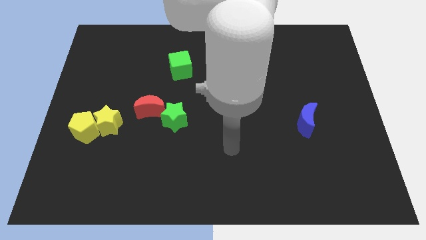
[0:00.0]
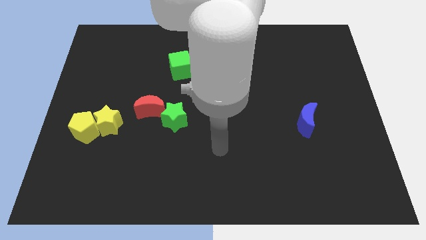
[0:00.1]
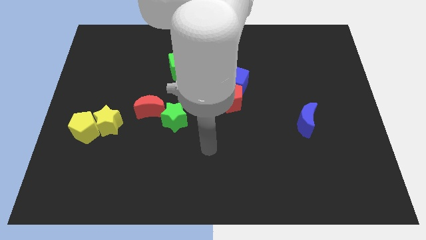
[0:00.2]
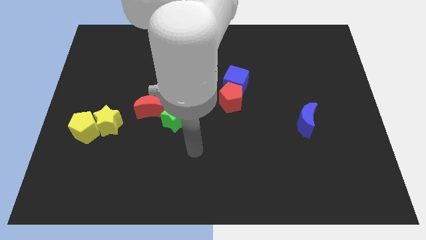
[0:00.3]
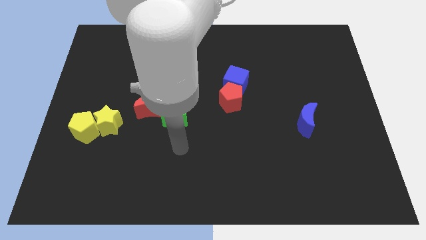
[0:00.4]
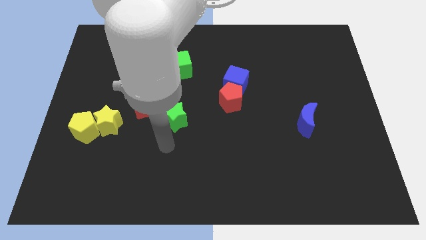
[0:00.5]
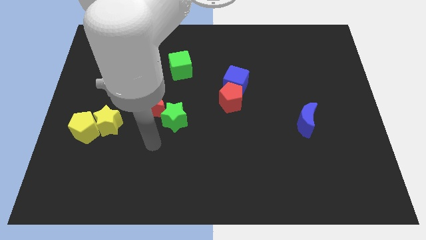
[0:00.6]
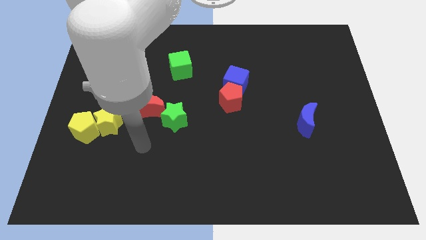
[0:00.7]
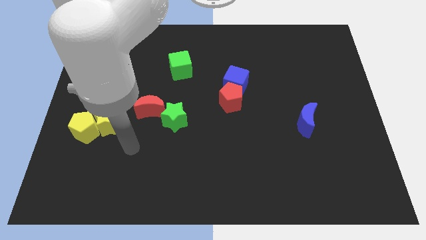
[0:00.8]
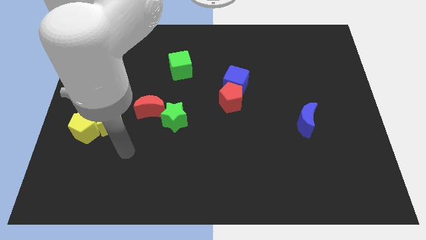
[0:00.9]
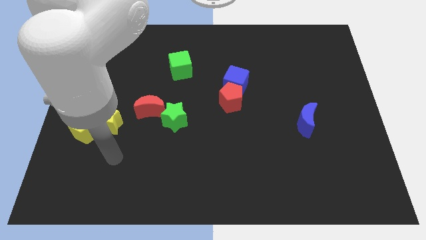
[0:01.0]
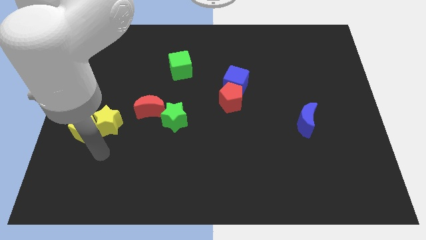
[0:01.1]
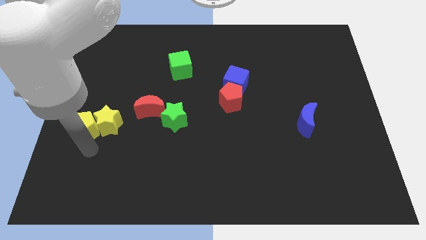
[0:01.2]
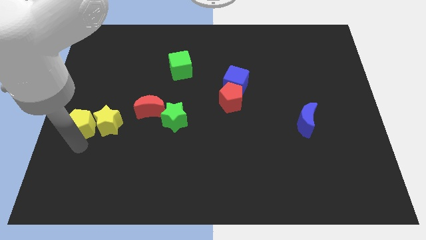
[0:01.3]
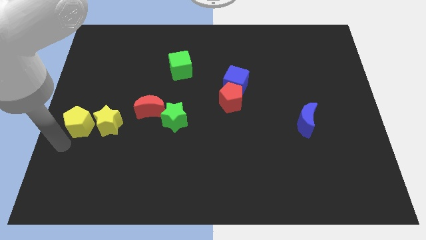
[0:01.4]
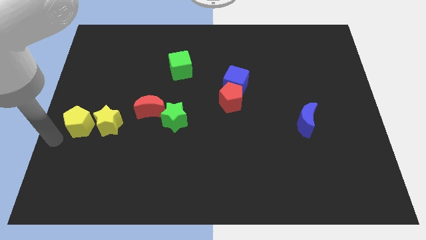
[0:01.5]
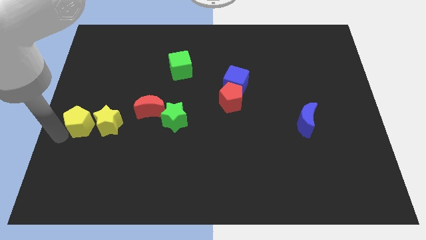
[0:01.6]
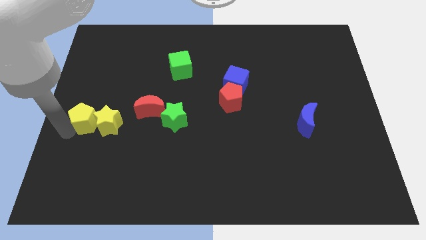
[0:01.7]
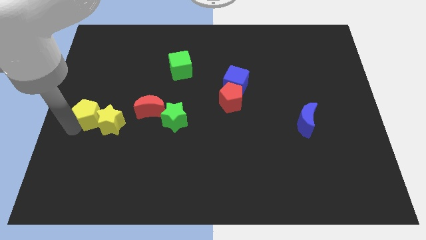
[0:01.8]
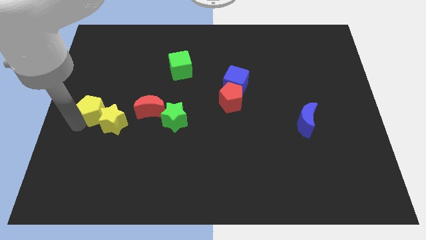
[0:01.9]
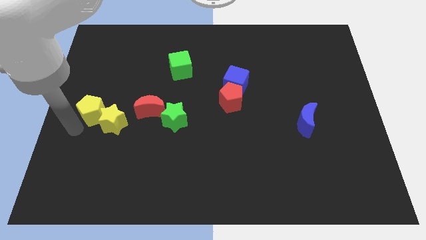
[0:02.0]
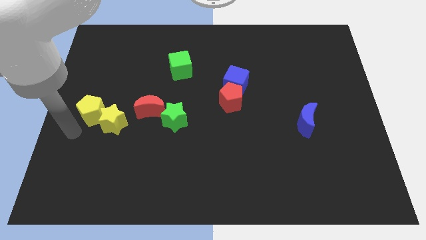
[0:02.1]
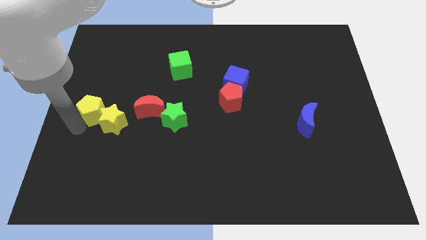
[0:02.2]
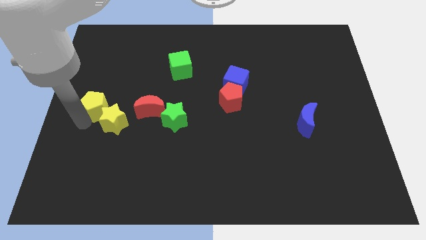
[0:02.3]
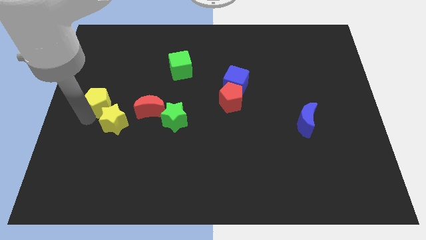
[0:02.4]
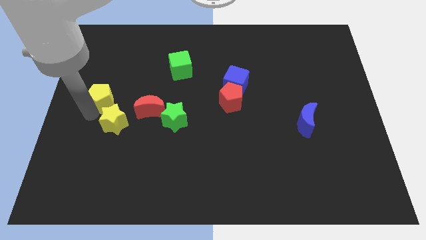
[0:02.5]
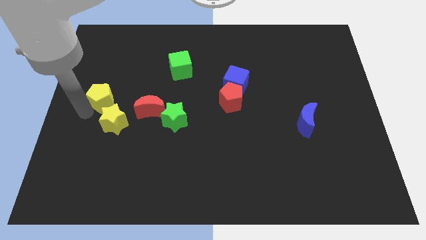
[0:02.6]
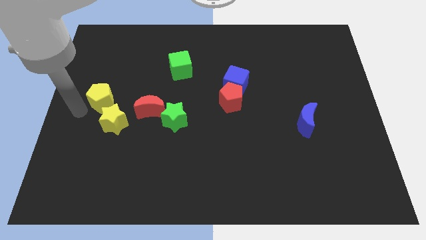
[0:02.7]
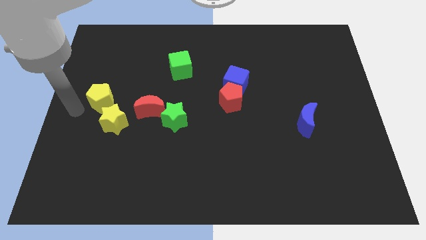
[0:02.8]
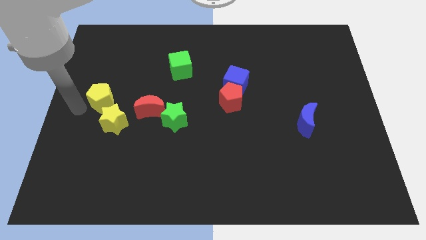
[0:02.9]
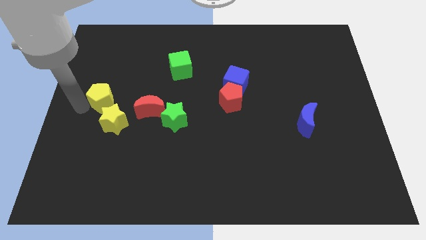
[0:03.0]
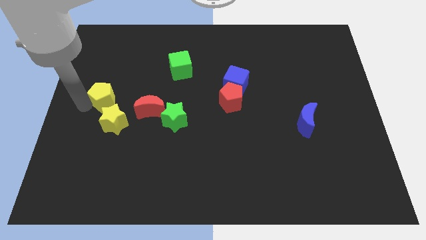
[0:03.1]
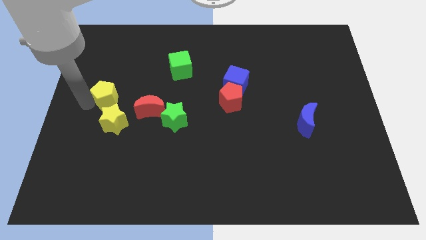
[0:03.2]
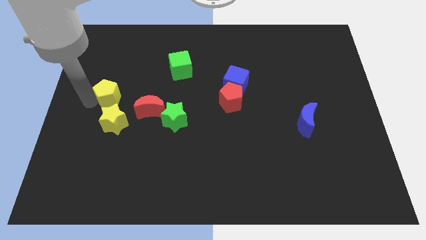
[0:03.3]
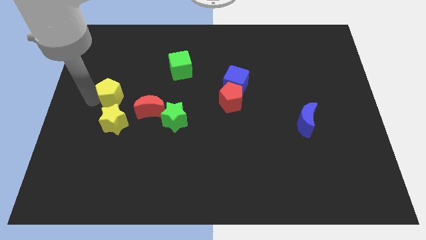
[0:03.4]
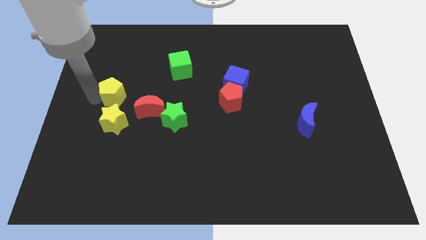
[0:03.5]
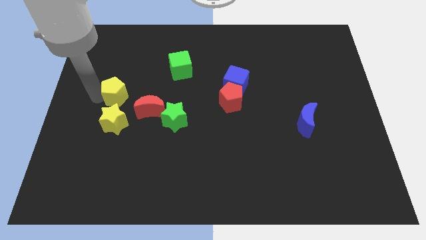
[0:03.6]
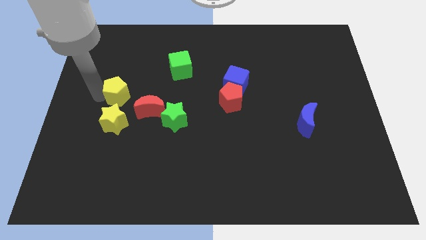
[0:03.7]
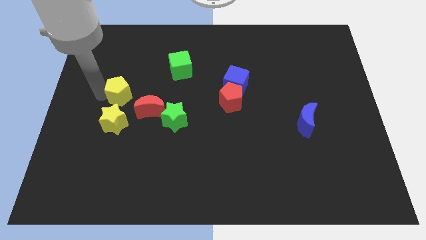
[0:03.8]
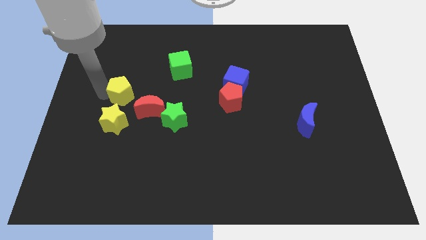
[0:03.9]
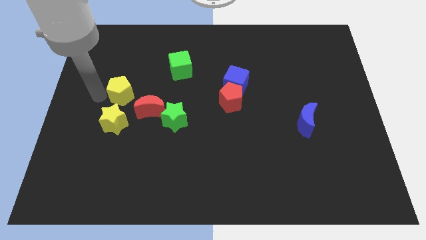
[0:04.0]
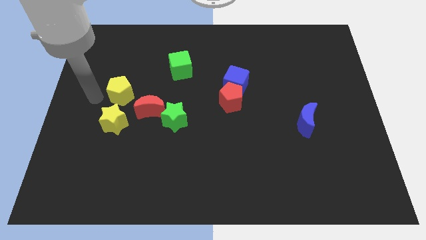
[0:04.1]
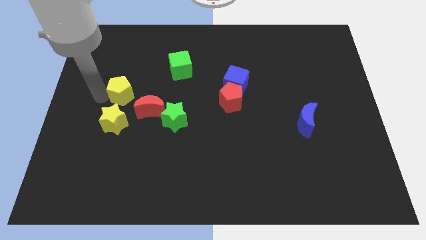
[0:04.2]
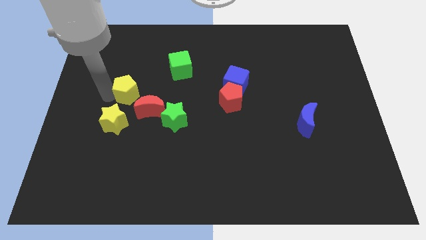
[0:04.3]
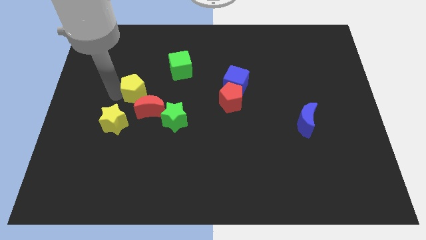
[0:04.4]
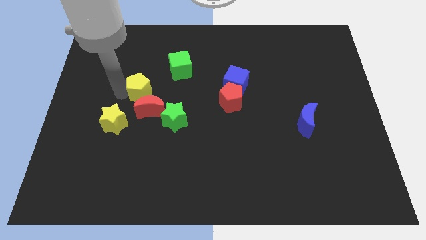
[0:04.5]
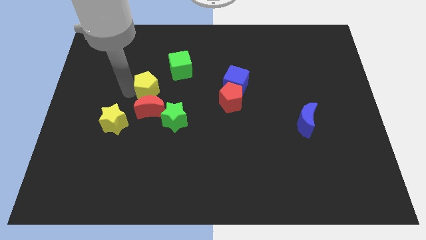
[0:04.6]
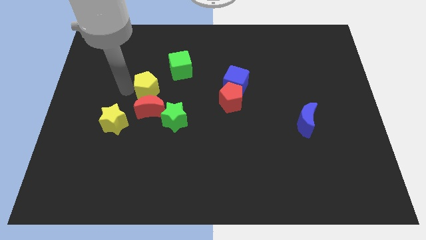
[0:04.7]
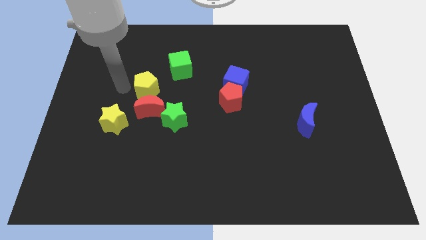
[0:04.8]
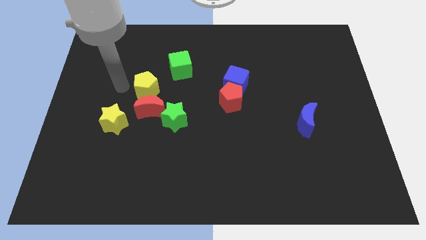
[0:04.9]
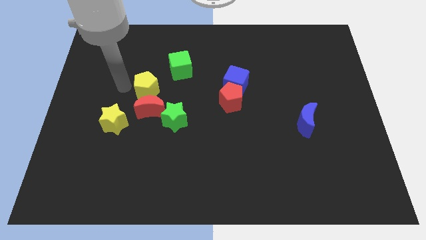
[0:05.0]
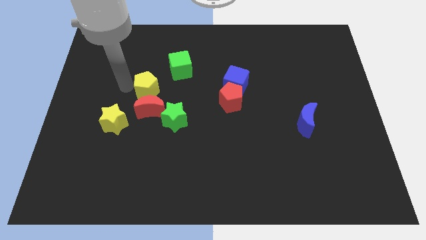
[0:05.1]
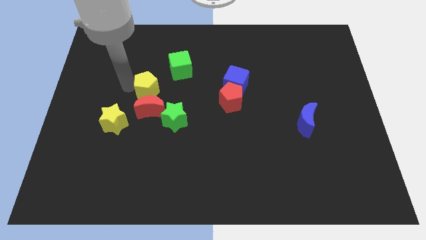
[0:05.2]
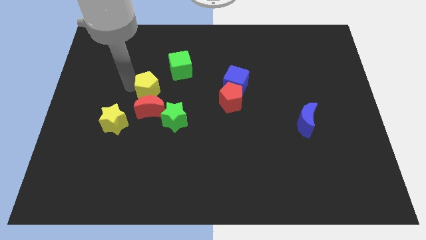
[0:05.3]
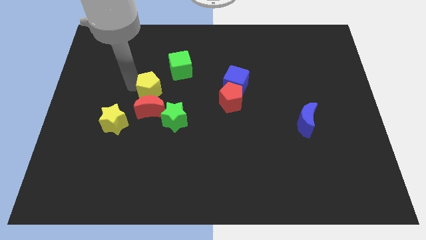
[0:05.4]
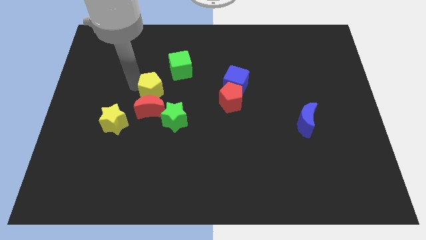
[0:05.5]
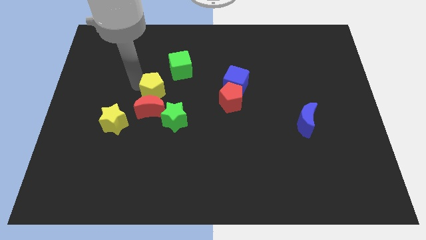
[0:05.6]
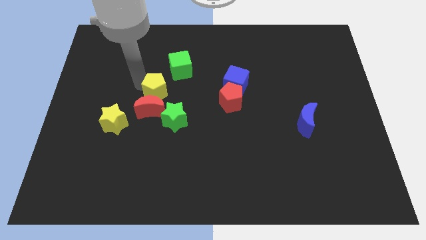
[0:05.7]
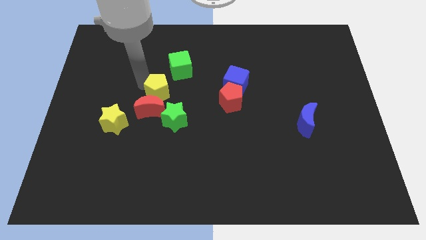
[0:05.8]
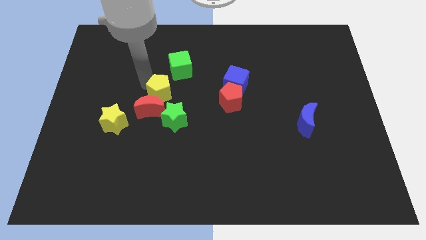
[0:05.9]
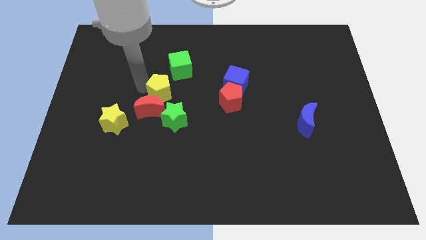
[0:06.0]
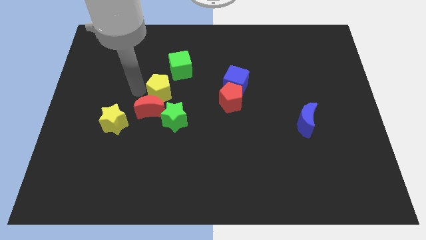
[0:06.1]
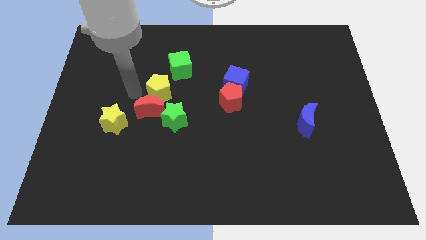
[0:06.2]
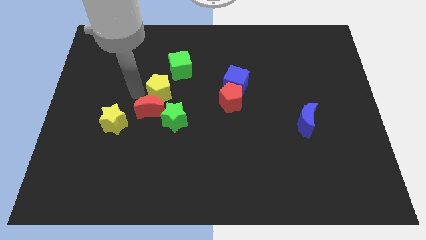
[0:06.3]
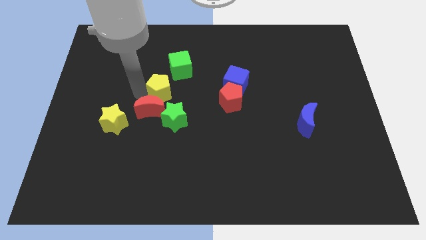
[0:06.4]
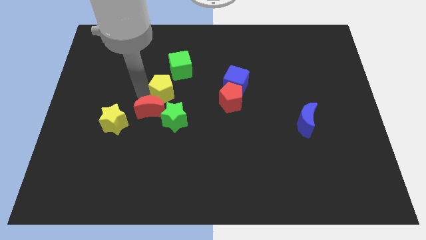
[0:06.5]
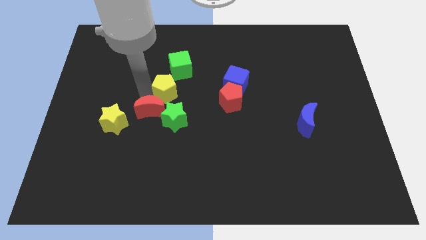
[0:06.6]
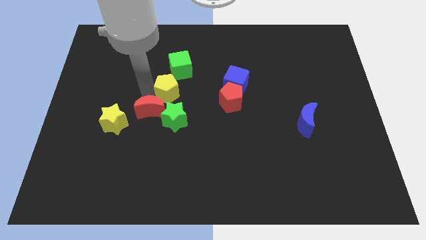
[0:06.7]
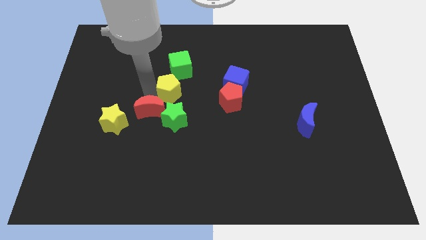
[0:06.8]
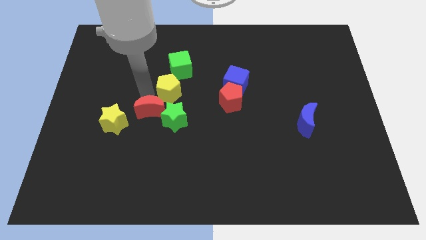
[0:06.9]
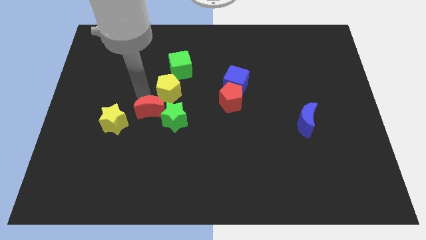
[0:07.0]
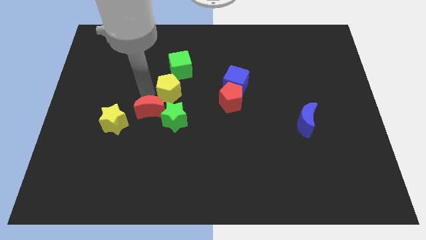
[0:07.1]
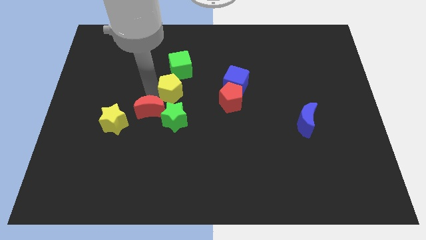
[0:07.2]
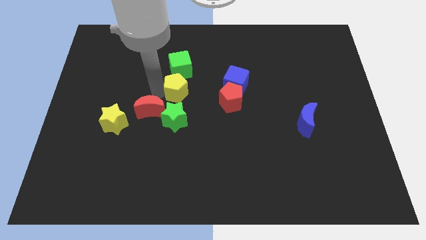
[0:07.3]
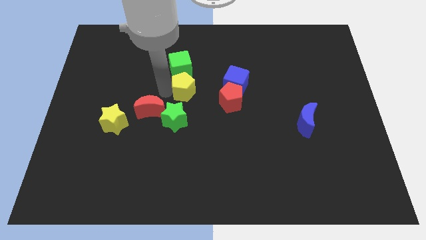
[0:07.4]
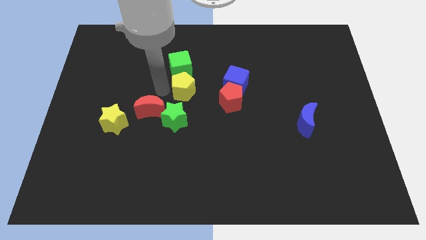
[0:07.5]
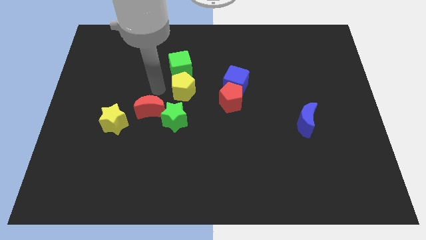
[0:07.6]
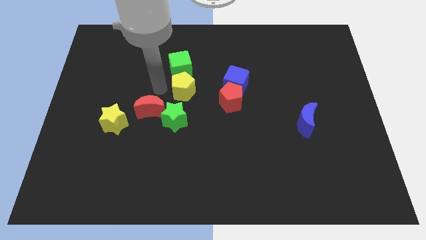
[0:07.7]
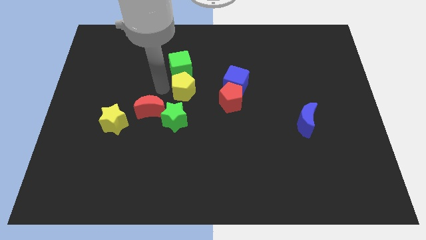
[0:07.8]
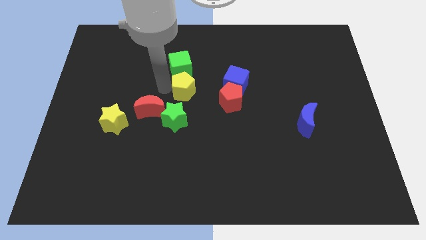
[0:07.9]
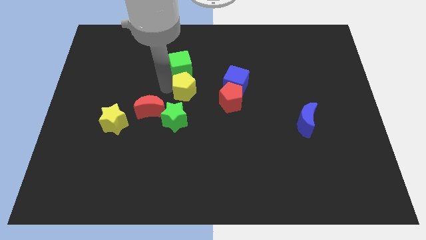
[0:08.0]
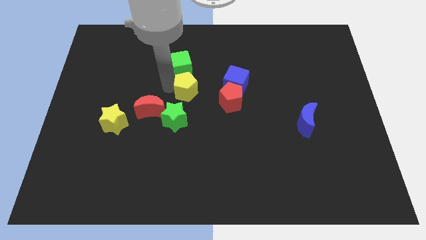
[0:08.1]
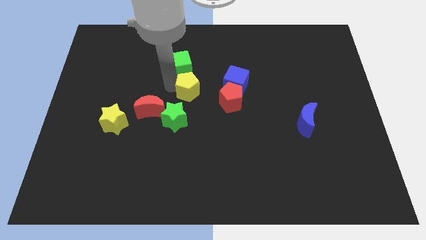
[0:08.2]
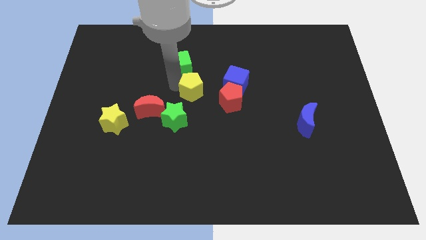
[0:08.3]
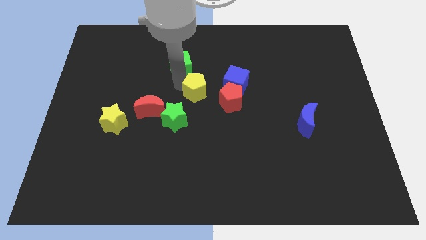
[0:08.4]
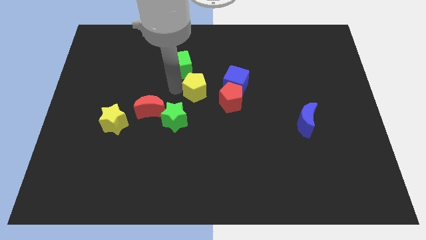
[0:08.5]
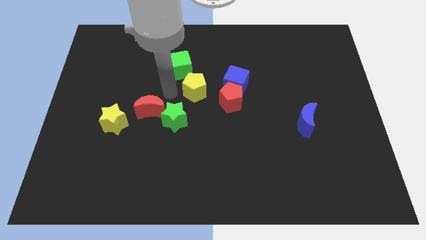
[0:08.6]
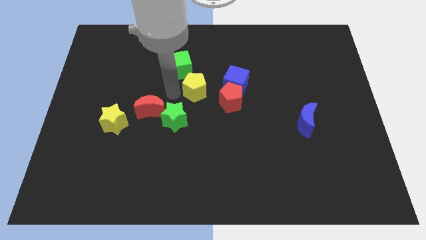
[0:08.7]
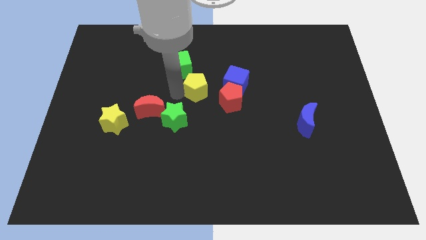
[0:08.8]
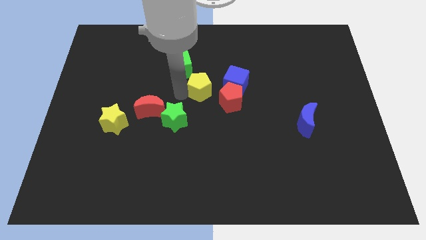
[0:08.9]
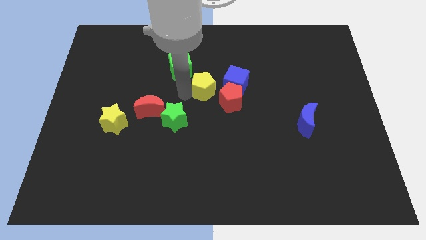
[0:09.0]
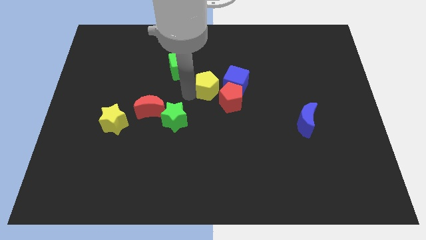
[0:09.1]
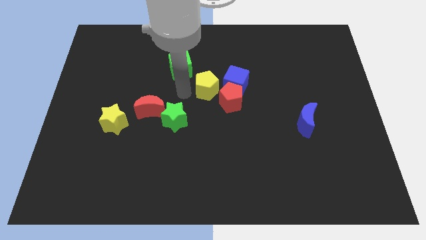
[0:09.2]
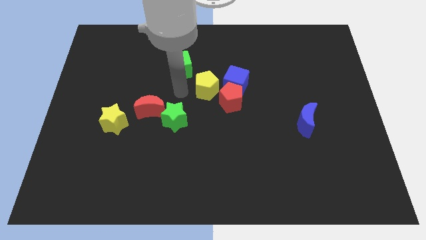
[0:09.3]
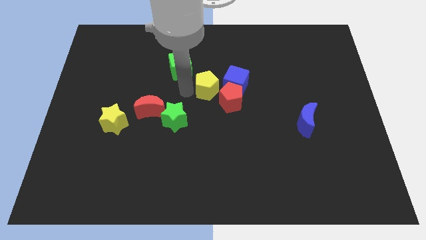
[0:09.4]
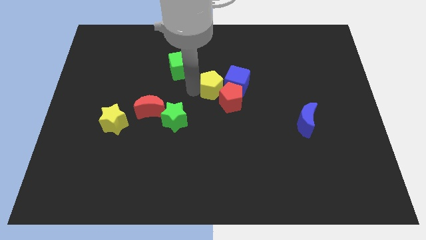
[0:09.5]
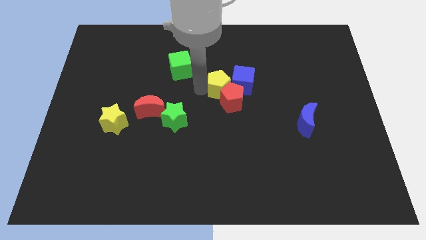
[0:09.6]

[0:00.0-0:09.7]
put the yellow pentagon close to the blue cube
